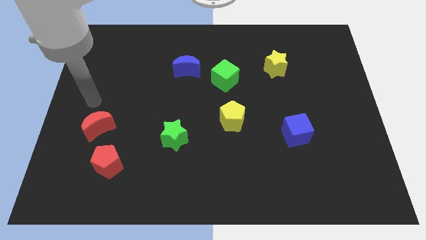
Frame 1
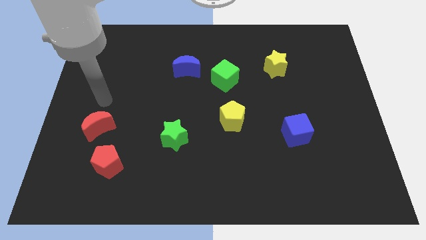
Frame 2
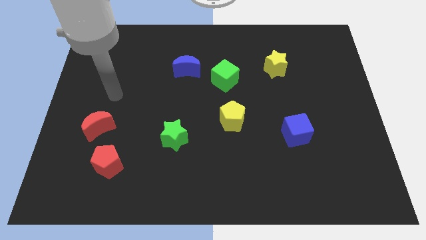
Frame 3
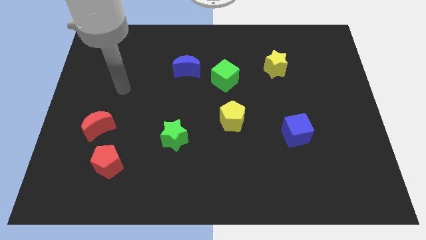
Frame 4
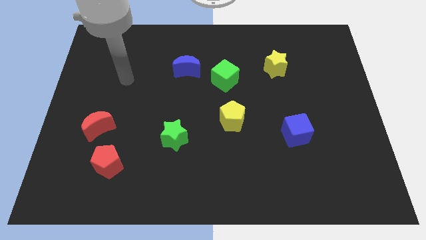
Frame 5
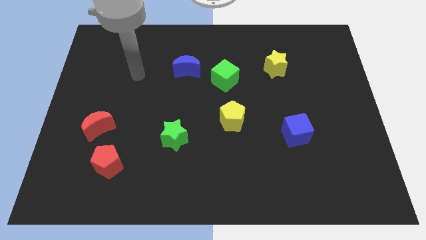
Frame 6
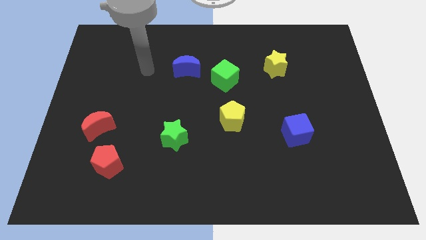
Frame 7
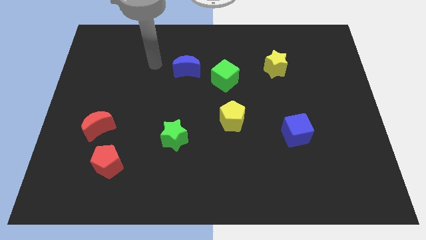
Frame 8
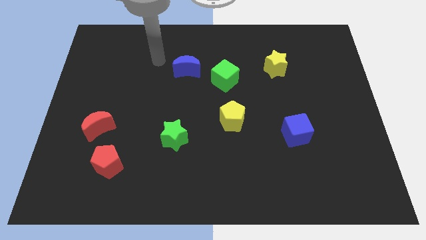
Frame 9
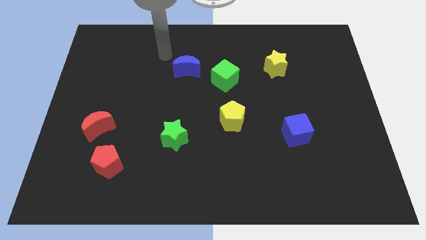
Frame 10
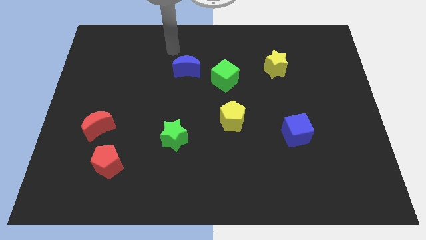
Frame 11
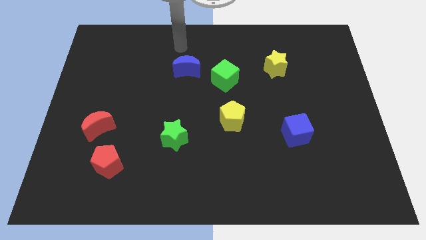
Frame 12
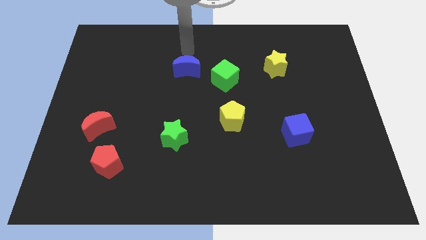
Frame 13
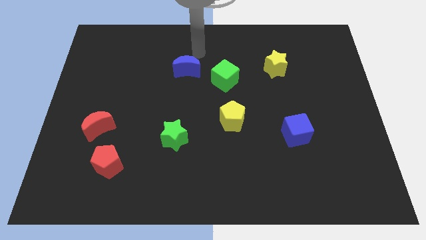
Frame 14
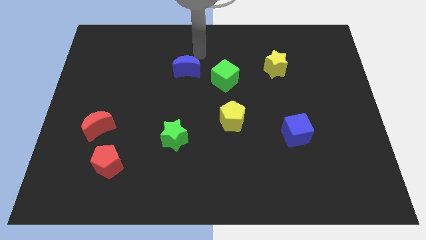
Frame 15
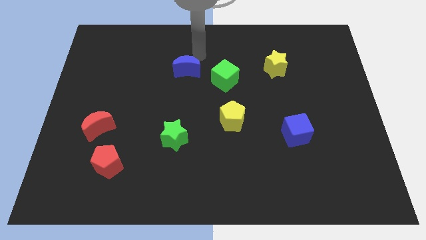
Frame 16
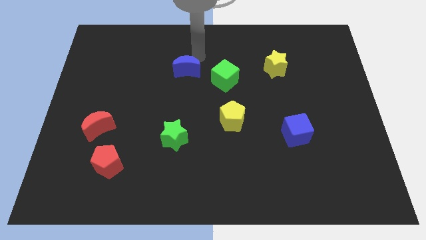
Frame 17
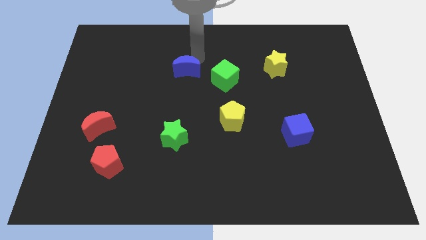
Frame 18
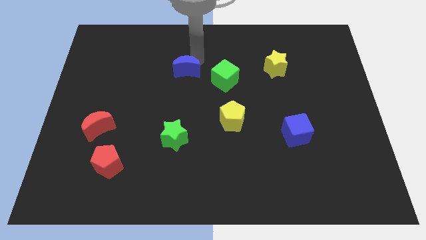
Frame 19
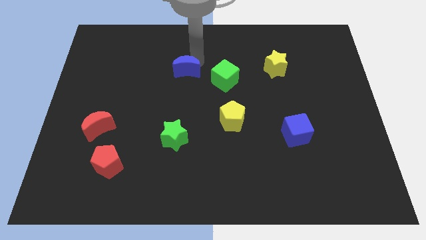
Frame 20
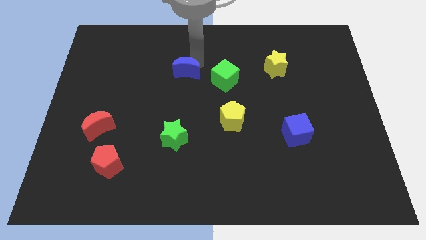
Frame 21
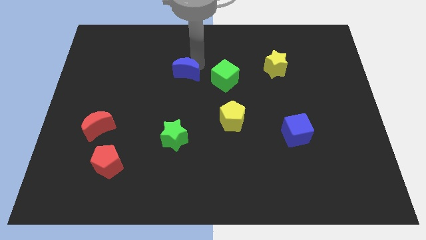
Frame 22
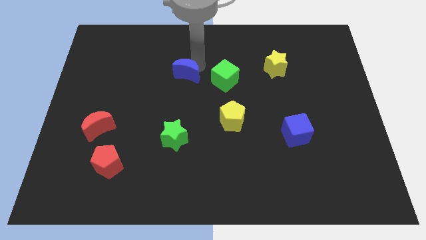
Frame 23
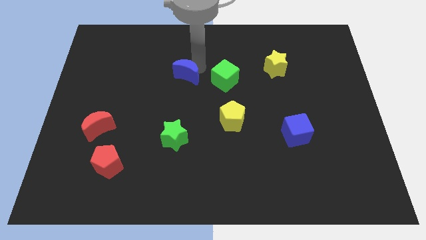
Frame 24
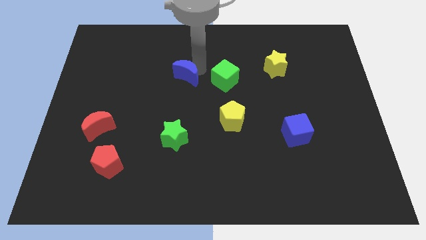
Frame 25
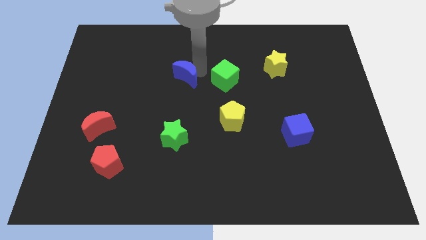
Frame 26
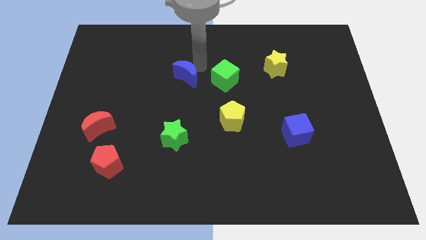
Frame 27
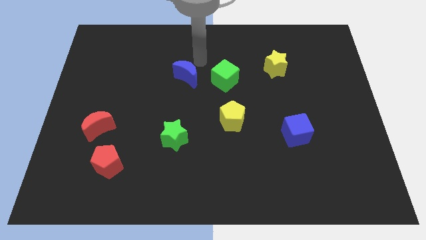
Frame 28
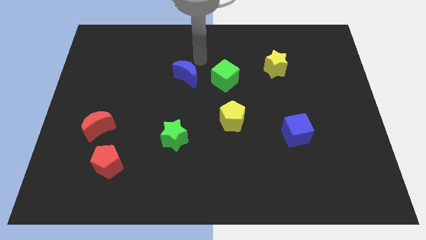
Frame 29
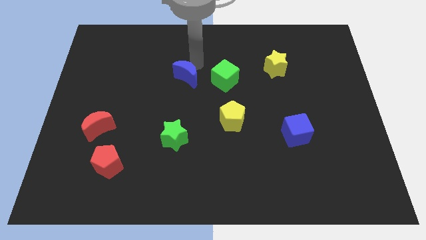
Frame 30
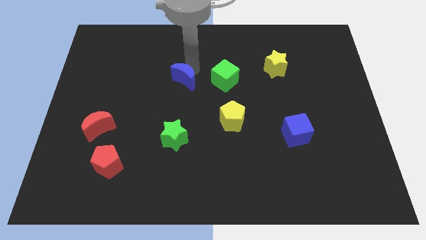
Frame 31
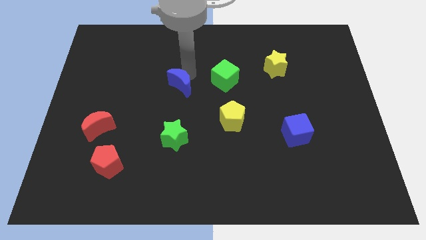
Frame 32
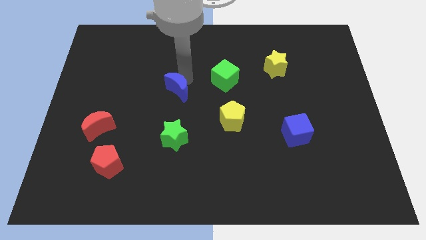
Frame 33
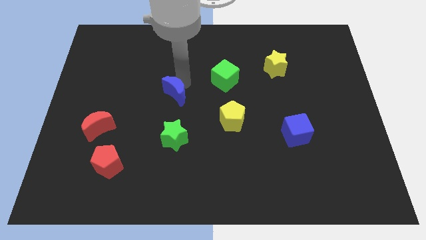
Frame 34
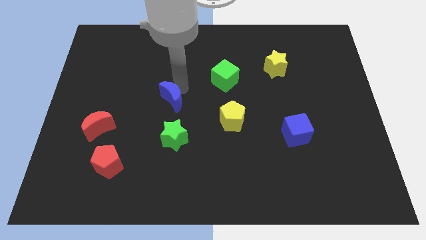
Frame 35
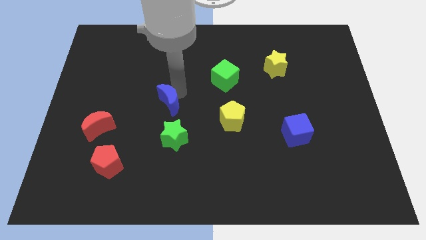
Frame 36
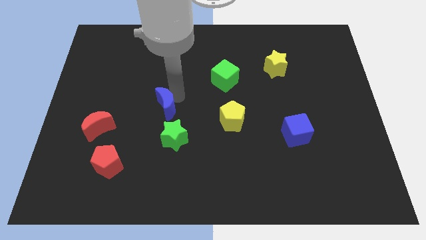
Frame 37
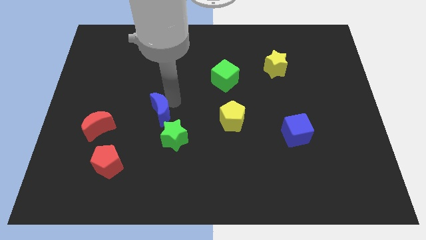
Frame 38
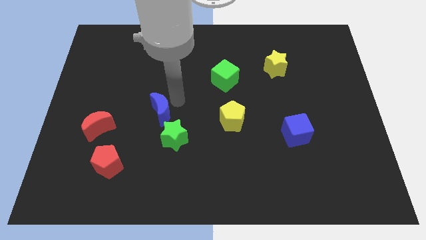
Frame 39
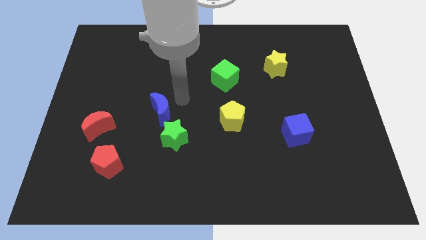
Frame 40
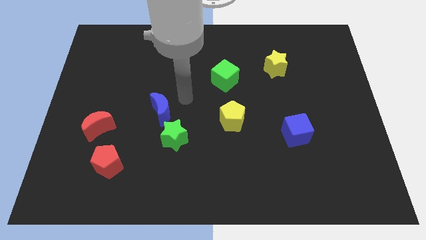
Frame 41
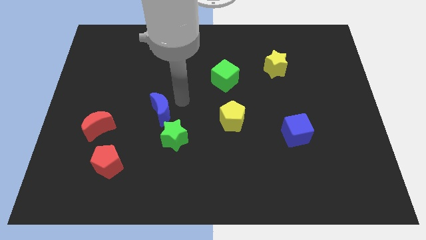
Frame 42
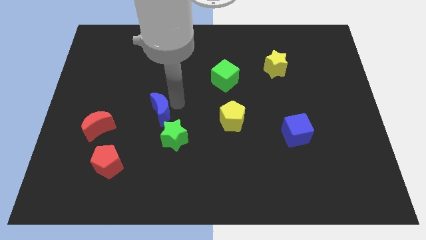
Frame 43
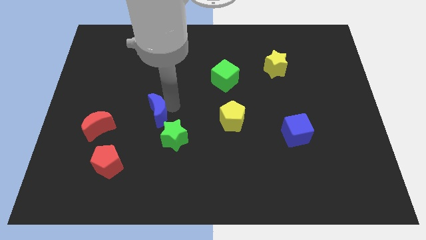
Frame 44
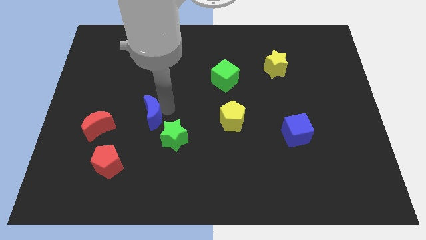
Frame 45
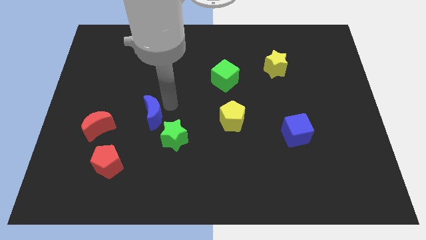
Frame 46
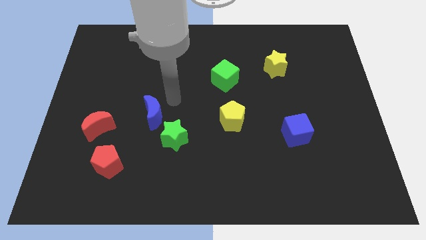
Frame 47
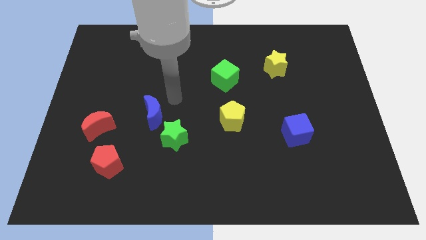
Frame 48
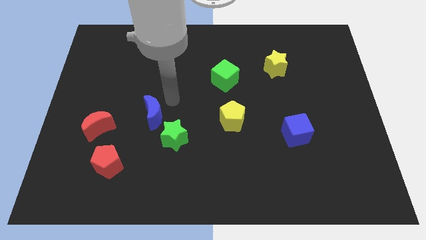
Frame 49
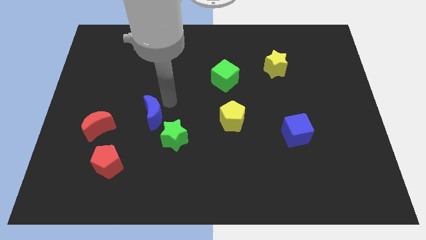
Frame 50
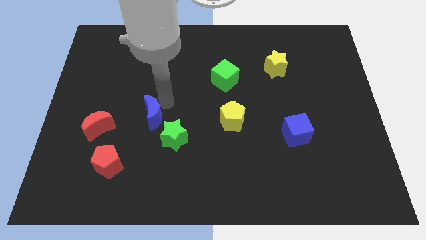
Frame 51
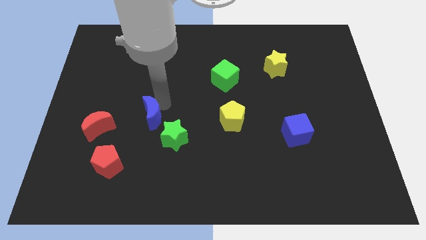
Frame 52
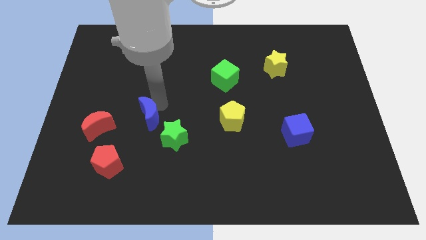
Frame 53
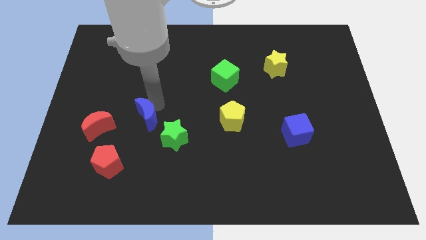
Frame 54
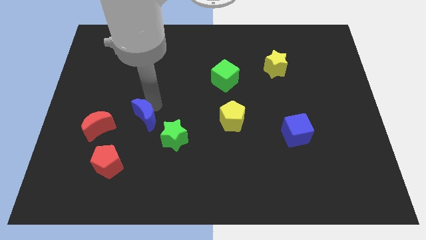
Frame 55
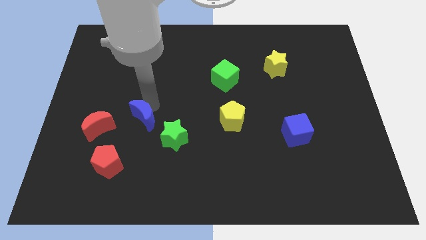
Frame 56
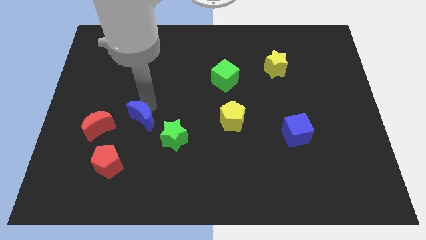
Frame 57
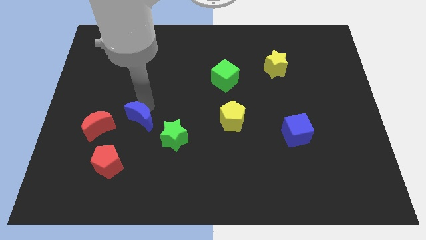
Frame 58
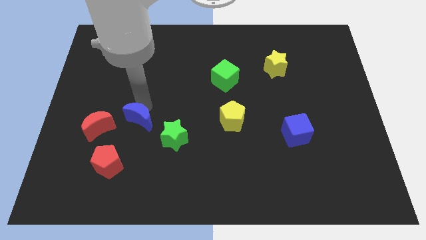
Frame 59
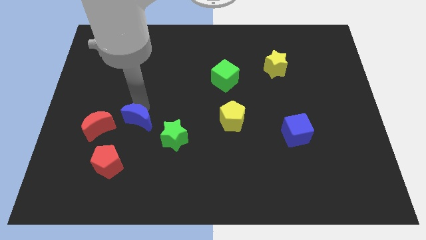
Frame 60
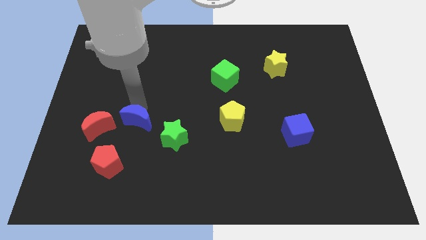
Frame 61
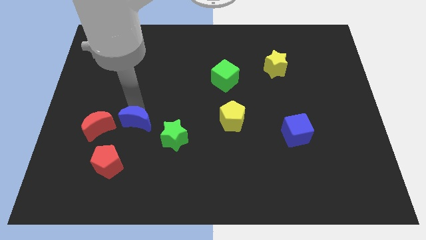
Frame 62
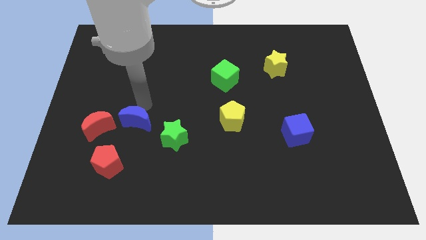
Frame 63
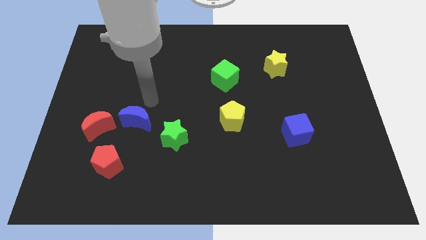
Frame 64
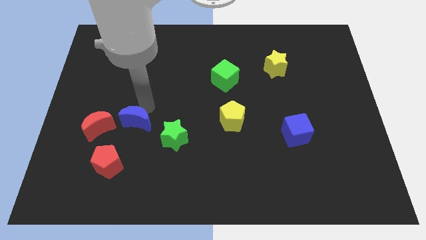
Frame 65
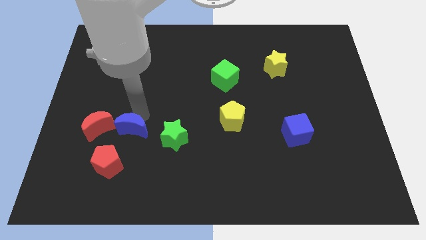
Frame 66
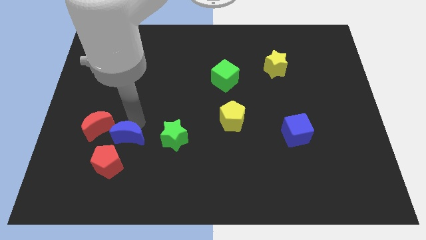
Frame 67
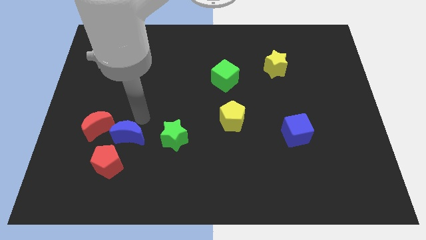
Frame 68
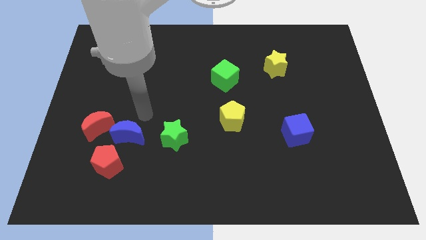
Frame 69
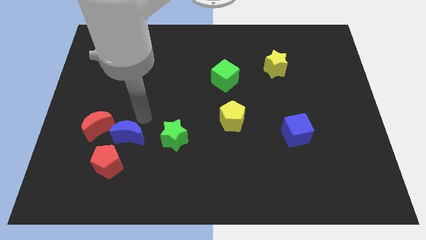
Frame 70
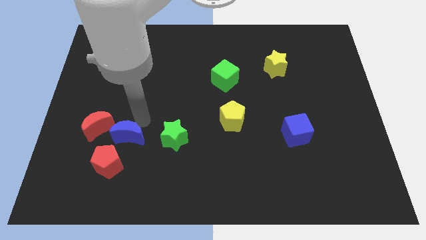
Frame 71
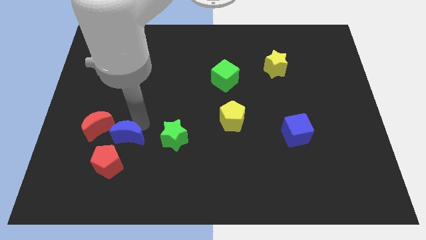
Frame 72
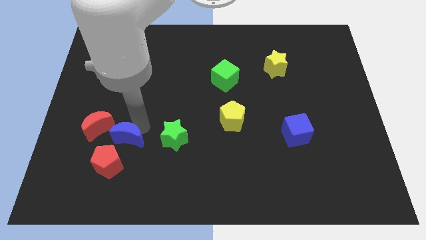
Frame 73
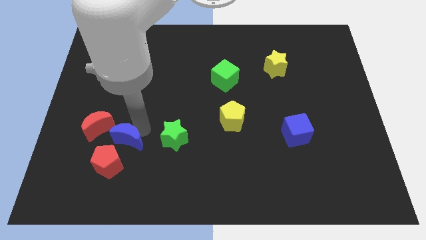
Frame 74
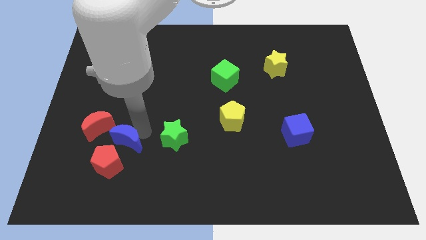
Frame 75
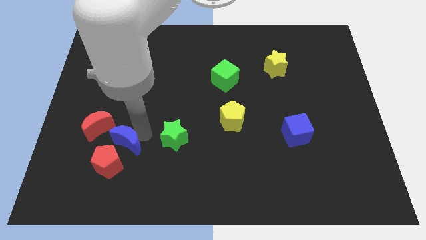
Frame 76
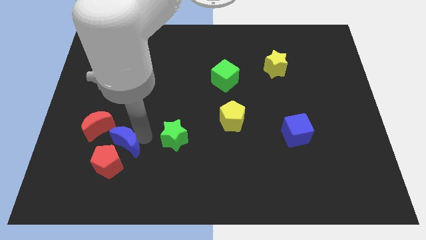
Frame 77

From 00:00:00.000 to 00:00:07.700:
move the blue moon to the red pentagon

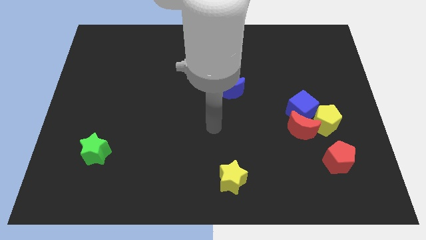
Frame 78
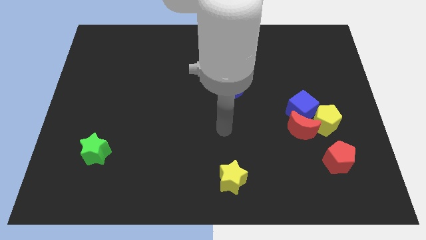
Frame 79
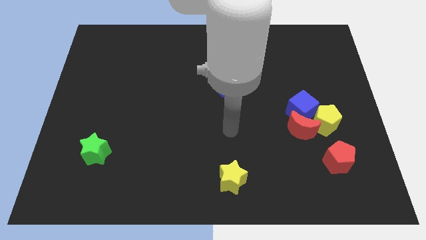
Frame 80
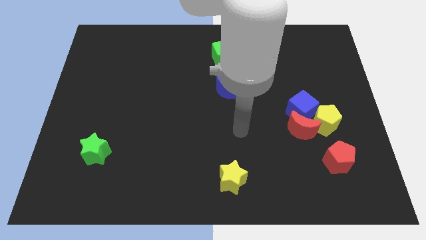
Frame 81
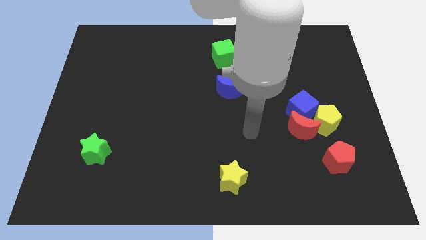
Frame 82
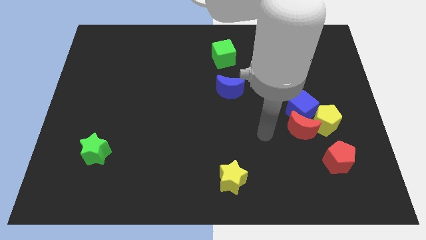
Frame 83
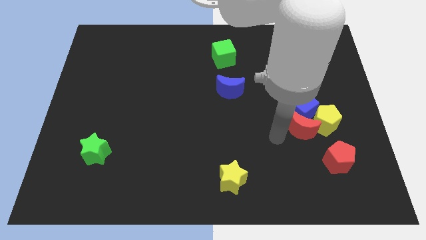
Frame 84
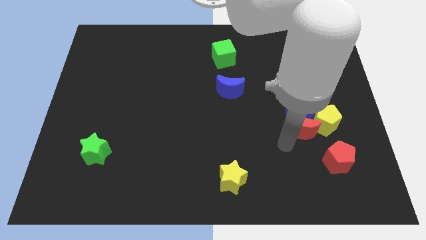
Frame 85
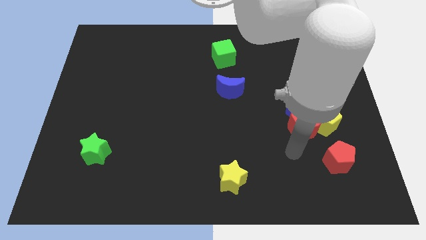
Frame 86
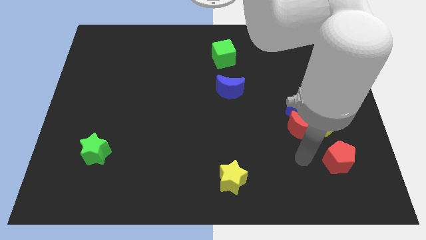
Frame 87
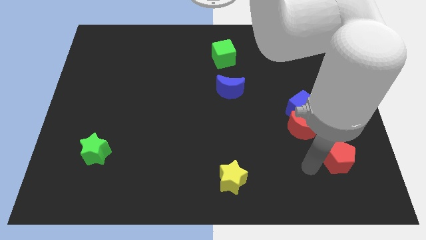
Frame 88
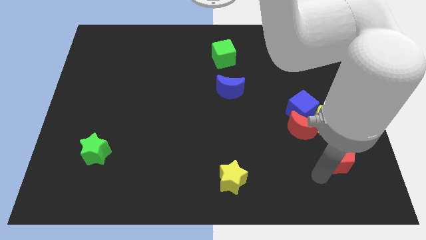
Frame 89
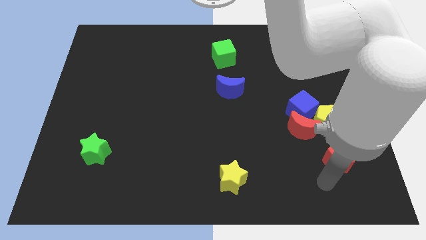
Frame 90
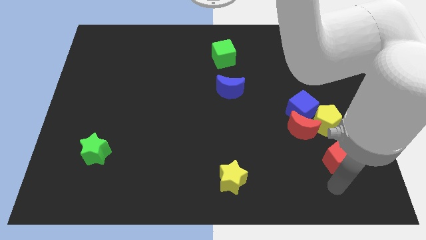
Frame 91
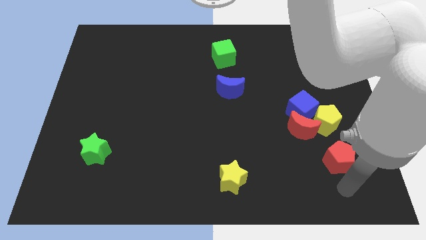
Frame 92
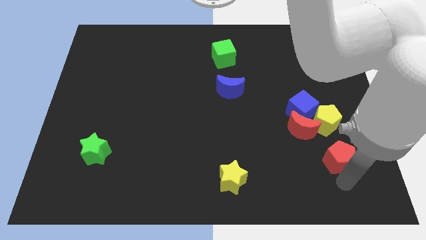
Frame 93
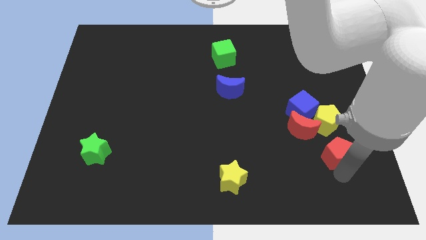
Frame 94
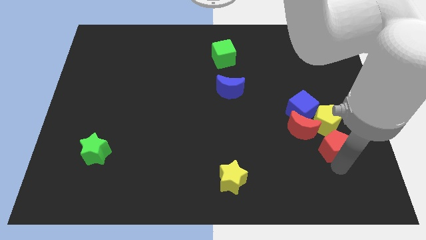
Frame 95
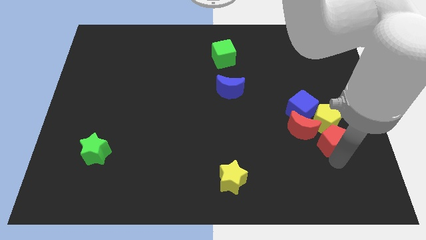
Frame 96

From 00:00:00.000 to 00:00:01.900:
slide the red pentagon close to the yellow pentagon
